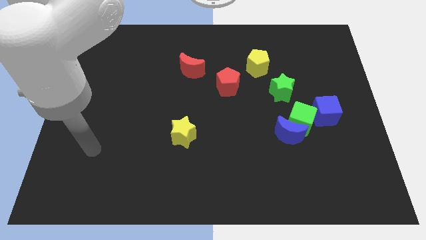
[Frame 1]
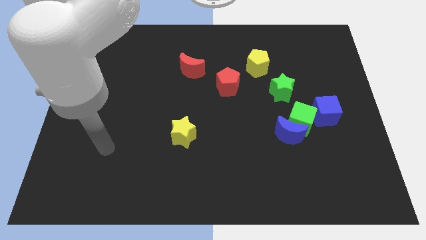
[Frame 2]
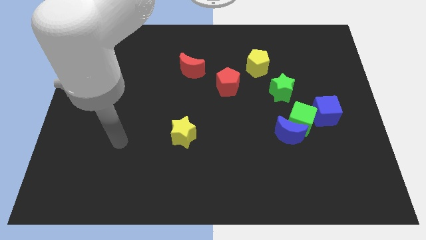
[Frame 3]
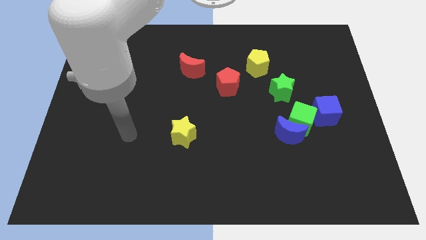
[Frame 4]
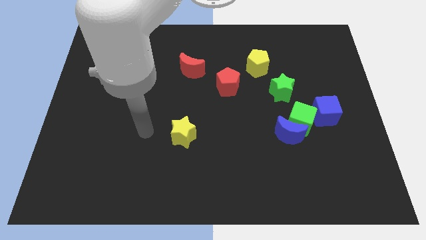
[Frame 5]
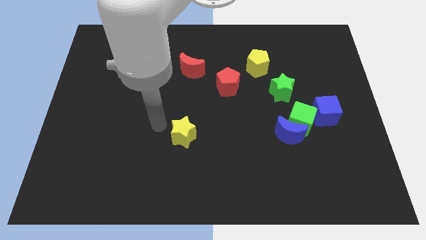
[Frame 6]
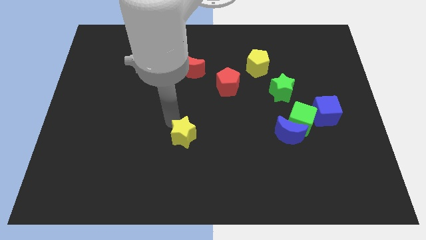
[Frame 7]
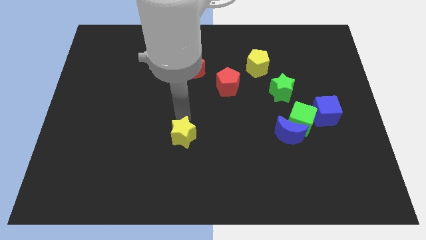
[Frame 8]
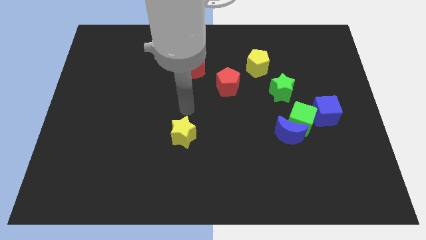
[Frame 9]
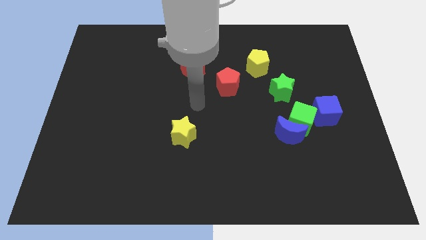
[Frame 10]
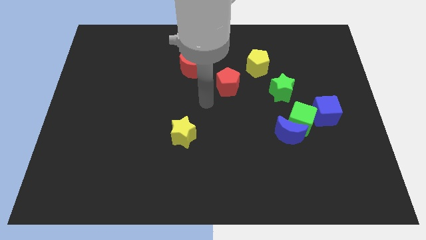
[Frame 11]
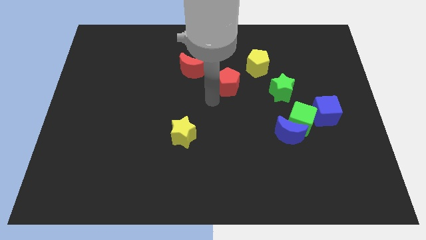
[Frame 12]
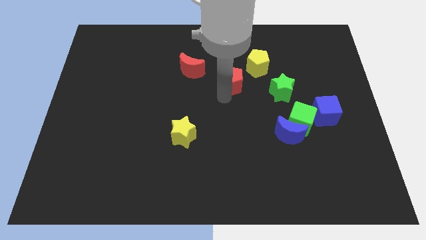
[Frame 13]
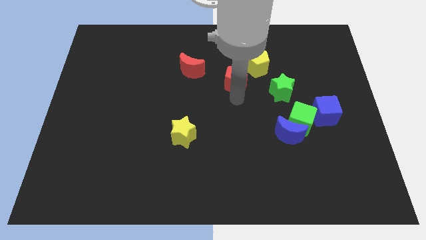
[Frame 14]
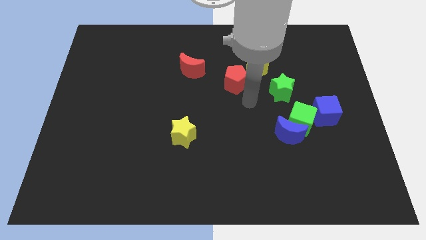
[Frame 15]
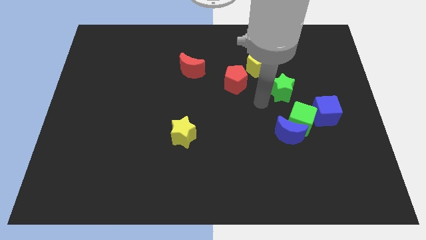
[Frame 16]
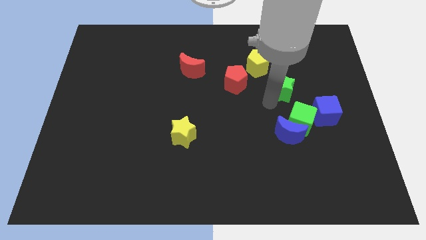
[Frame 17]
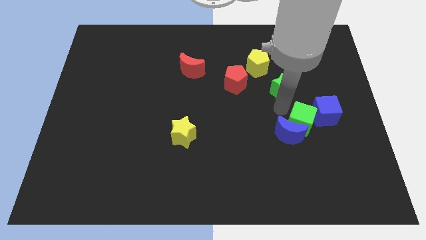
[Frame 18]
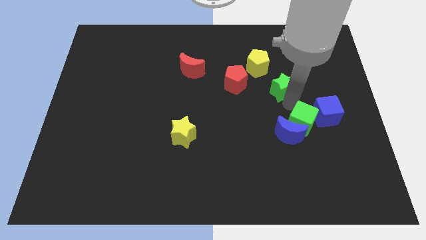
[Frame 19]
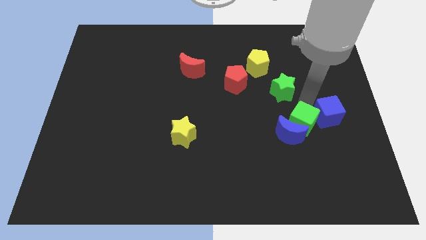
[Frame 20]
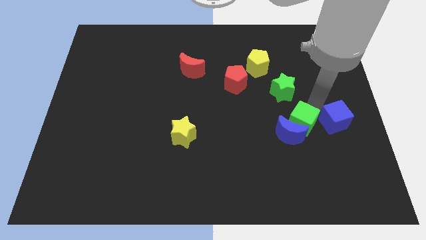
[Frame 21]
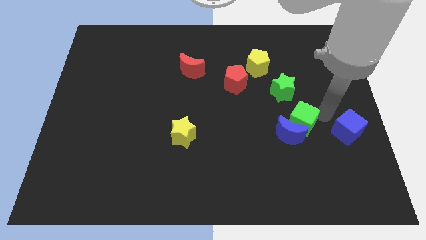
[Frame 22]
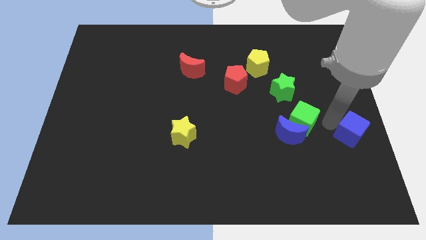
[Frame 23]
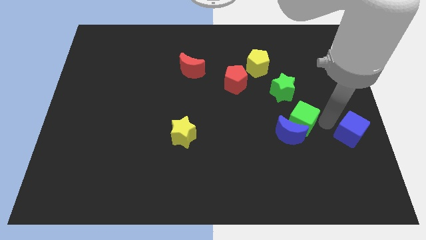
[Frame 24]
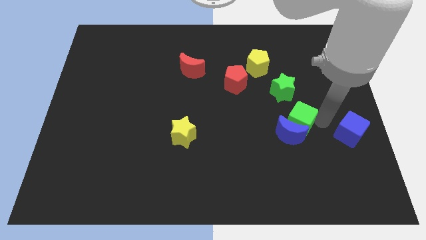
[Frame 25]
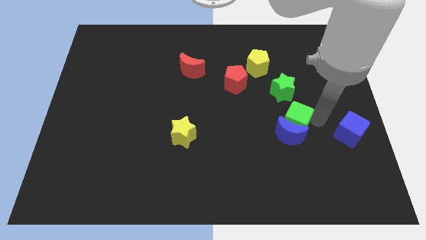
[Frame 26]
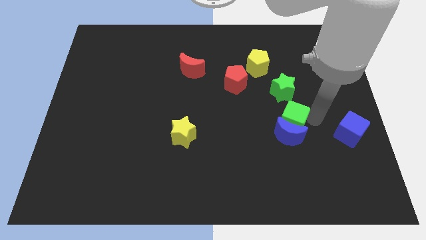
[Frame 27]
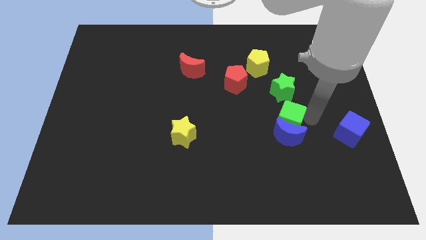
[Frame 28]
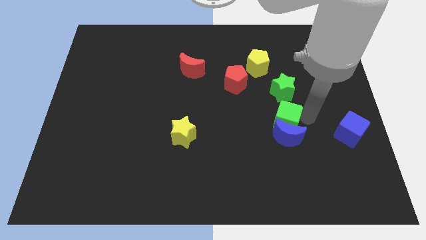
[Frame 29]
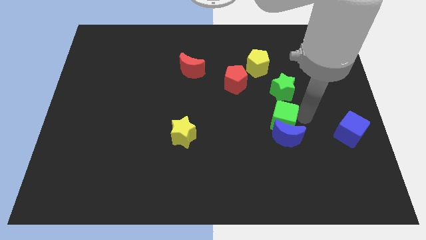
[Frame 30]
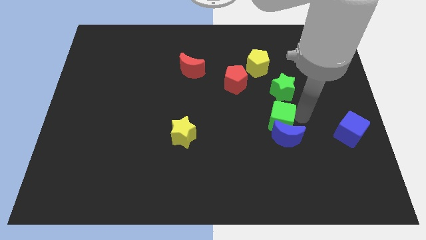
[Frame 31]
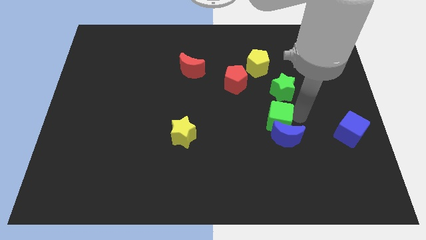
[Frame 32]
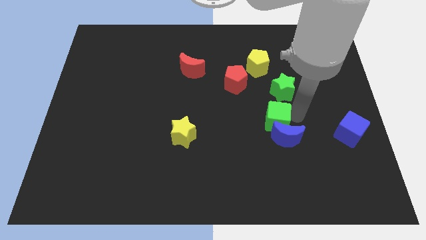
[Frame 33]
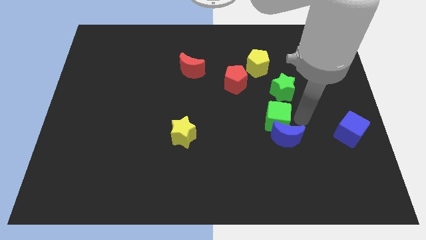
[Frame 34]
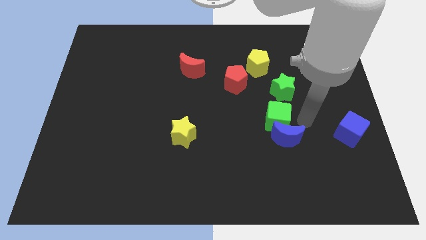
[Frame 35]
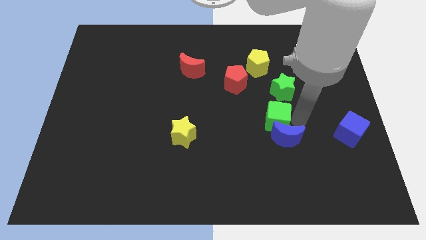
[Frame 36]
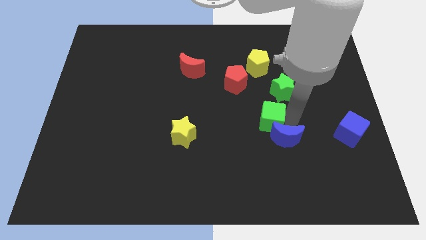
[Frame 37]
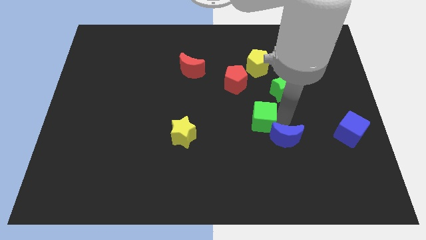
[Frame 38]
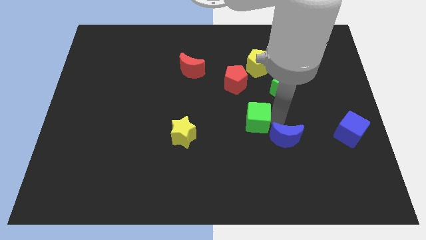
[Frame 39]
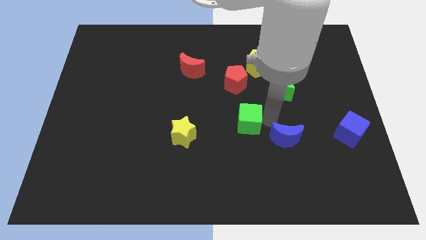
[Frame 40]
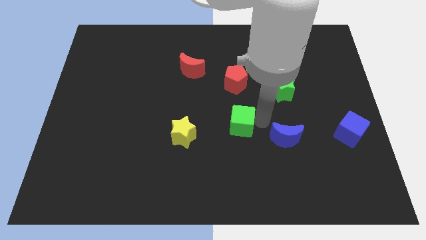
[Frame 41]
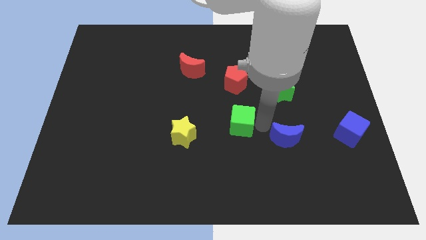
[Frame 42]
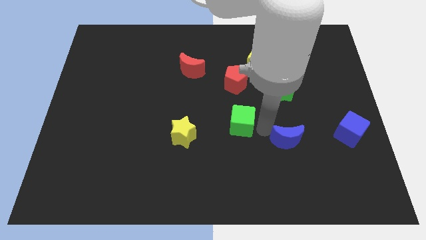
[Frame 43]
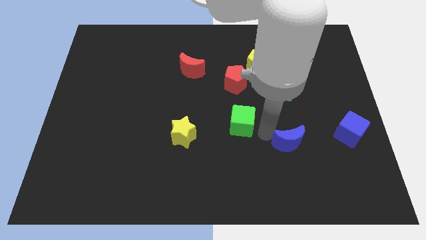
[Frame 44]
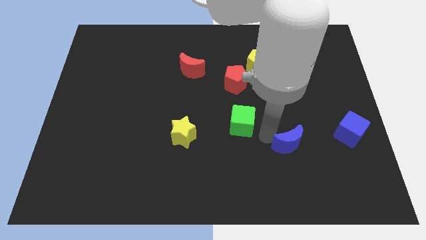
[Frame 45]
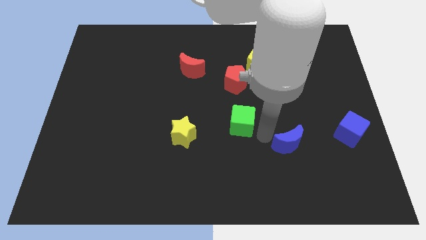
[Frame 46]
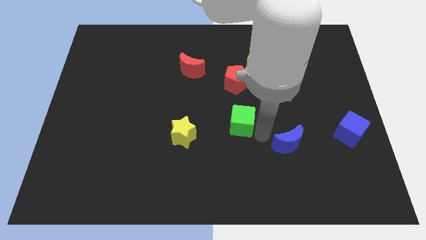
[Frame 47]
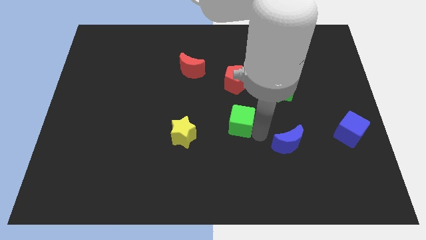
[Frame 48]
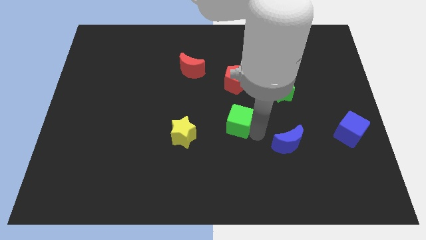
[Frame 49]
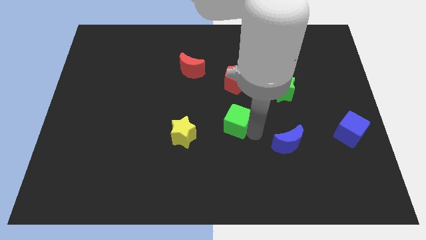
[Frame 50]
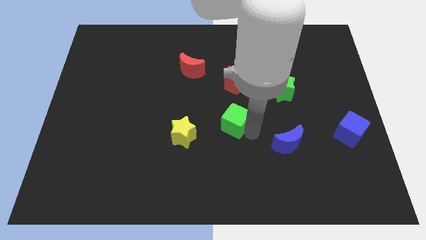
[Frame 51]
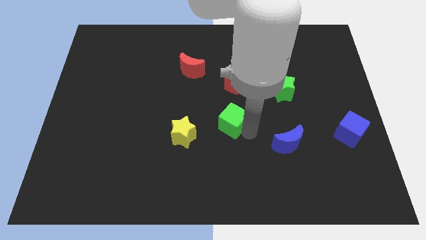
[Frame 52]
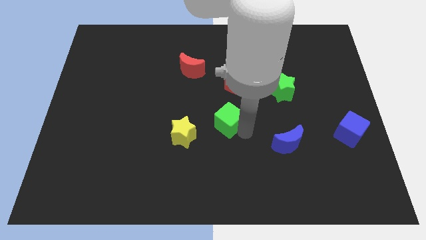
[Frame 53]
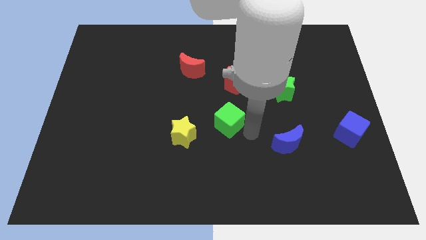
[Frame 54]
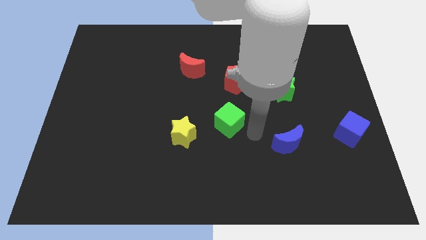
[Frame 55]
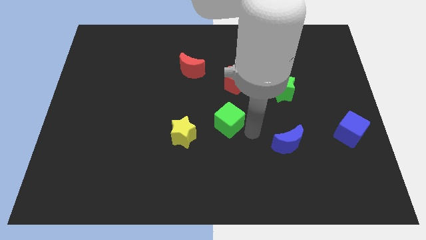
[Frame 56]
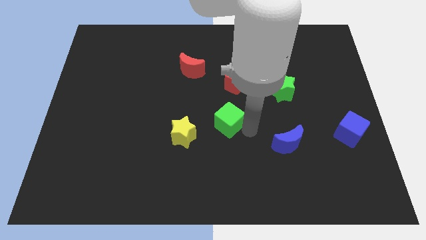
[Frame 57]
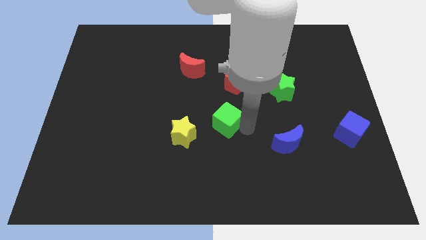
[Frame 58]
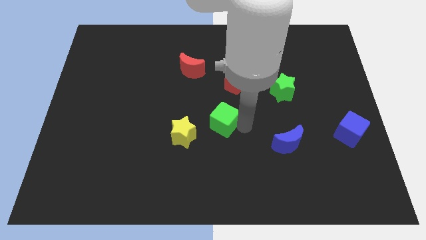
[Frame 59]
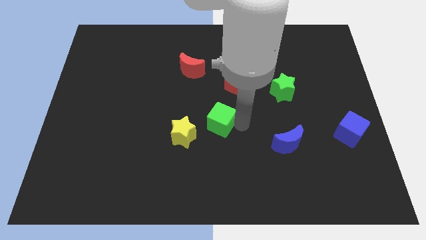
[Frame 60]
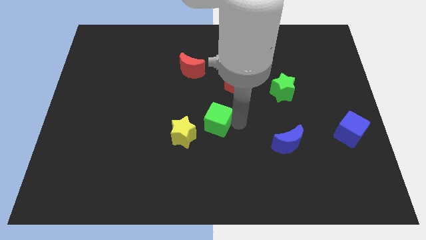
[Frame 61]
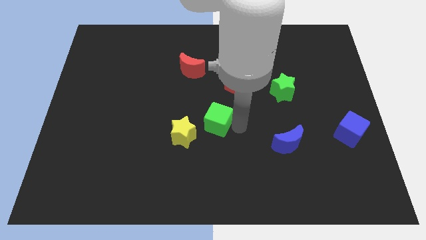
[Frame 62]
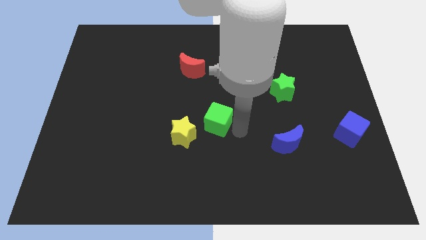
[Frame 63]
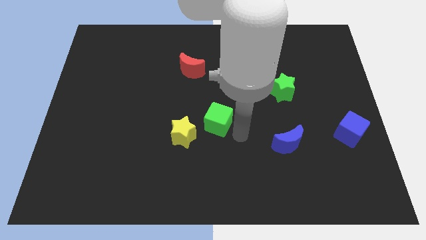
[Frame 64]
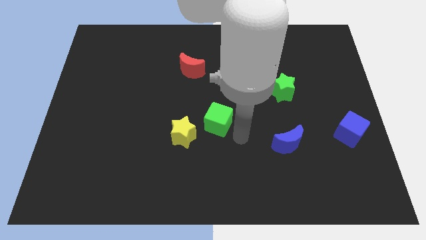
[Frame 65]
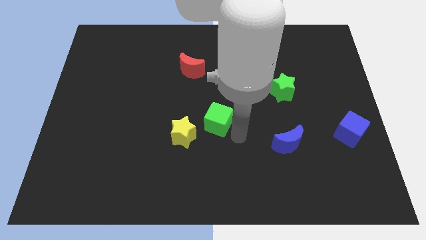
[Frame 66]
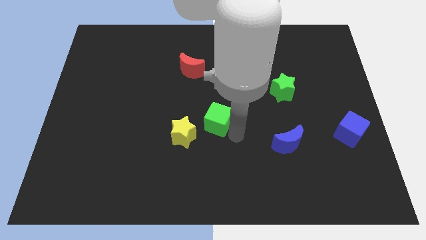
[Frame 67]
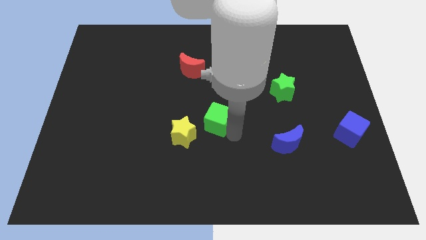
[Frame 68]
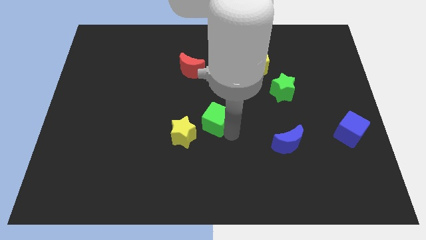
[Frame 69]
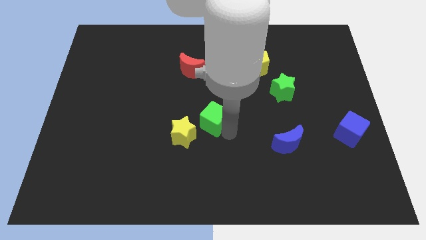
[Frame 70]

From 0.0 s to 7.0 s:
slide the green cube to the left

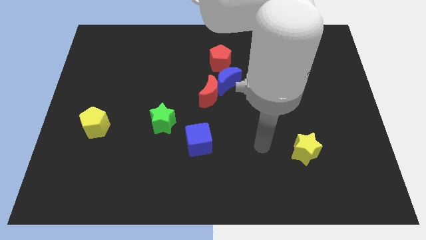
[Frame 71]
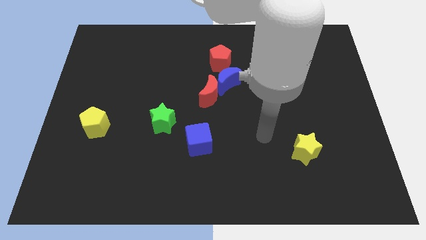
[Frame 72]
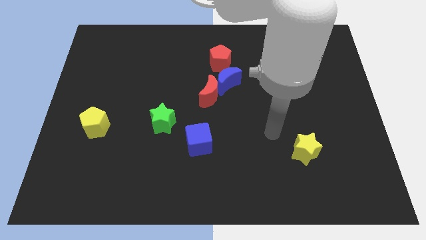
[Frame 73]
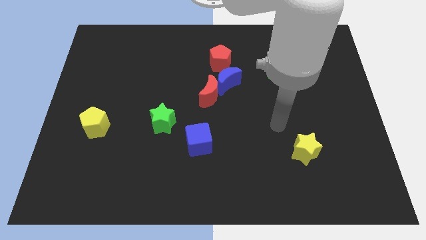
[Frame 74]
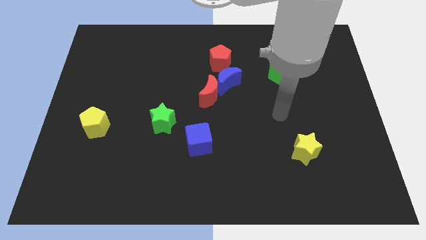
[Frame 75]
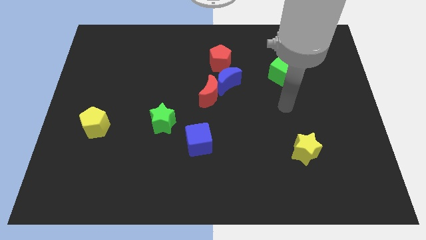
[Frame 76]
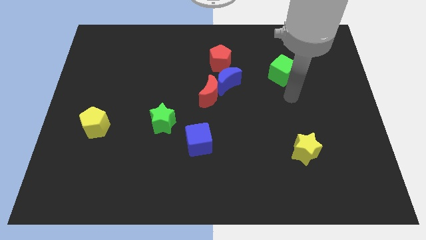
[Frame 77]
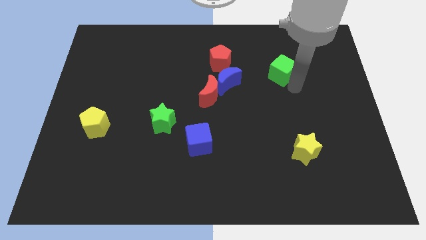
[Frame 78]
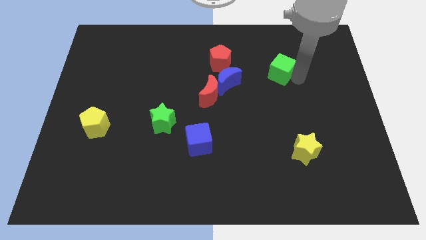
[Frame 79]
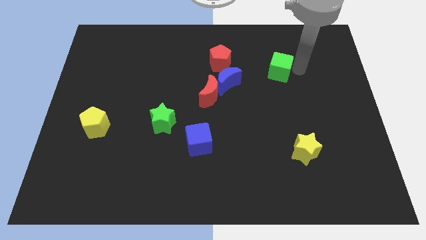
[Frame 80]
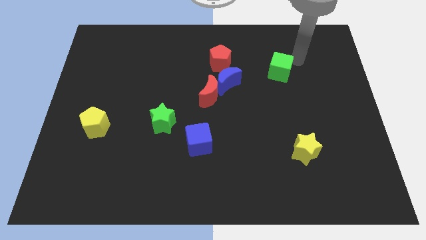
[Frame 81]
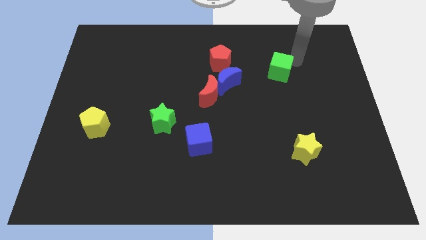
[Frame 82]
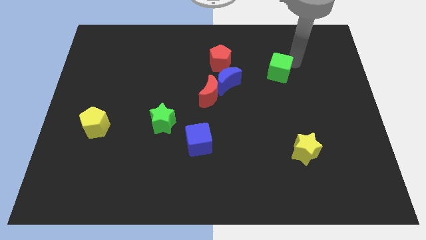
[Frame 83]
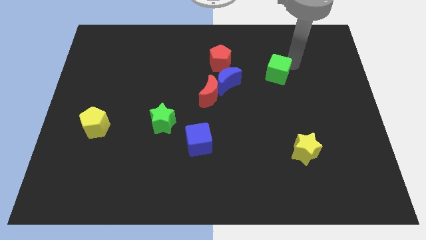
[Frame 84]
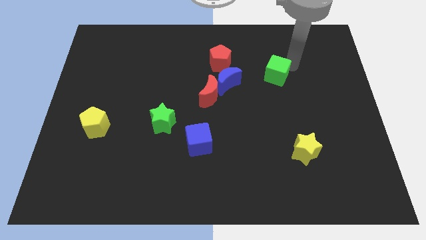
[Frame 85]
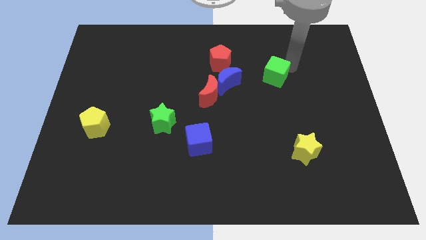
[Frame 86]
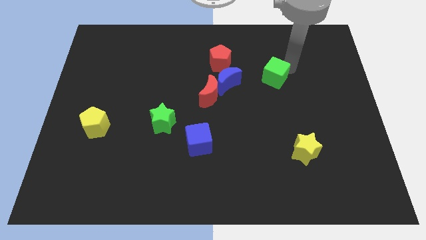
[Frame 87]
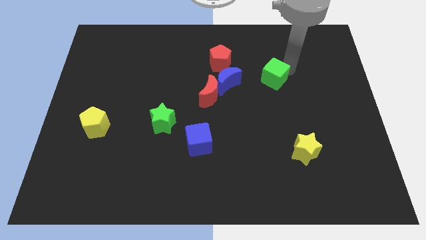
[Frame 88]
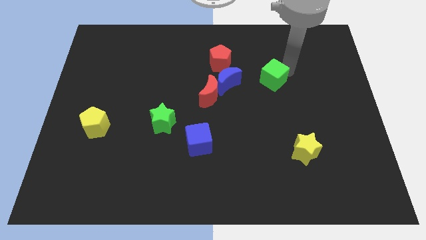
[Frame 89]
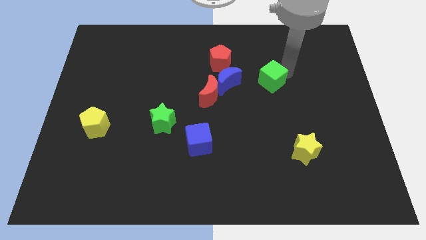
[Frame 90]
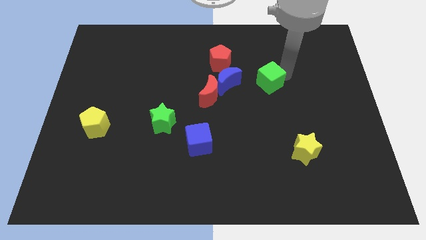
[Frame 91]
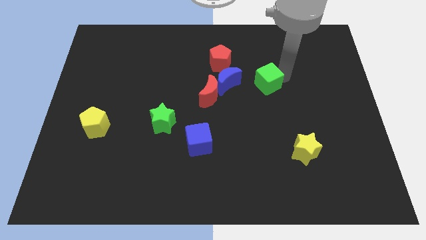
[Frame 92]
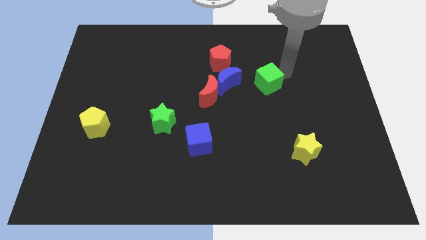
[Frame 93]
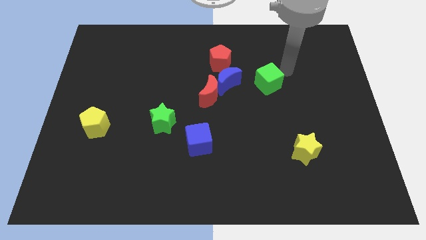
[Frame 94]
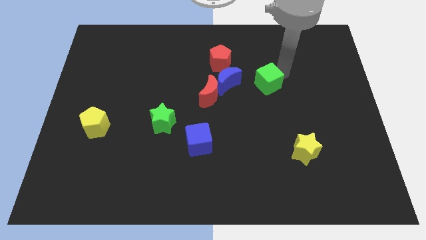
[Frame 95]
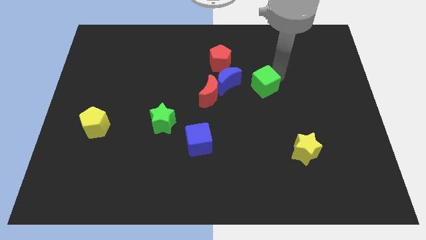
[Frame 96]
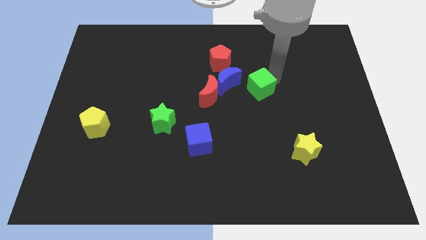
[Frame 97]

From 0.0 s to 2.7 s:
slightly move the green cube downwards and then left
